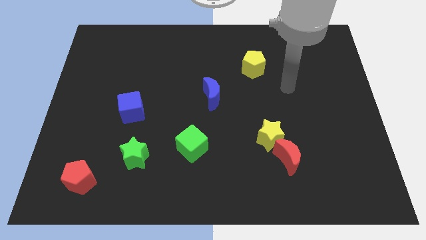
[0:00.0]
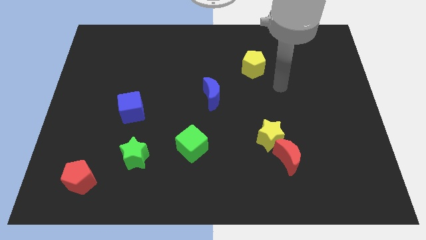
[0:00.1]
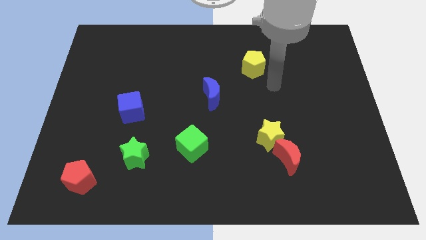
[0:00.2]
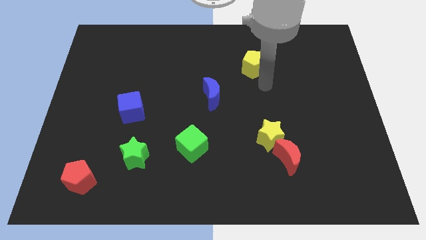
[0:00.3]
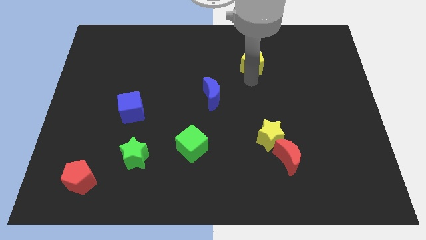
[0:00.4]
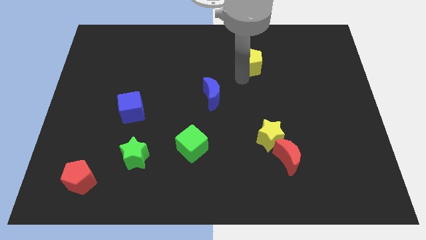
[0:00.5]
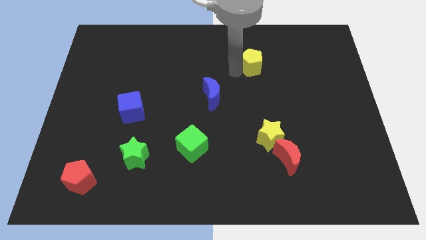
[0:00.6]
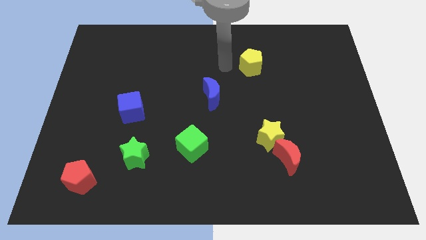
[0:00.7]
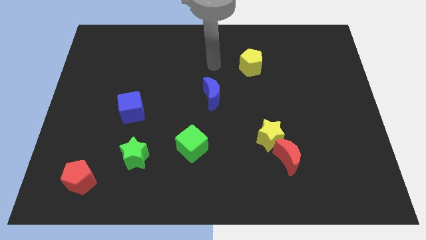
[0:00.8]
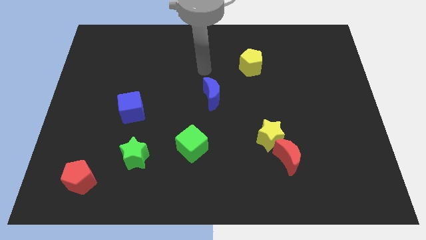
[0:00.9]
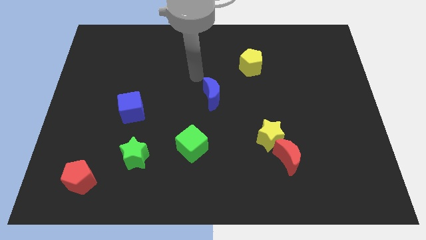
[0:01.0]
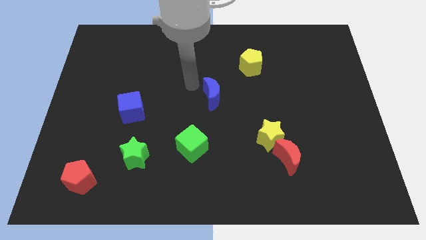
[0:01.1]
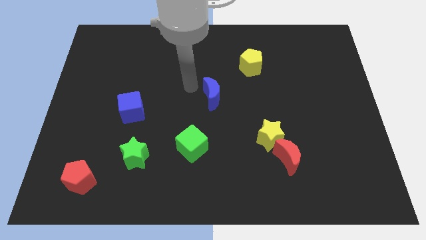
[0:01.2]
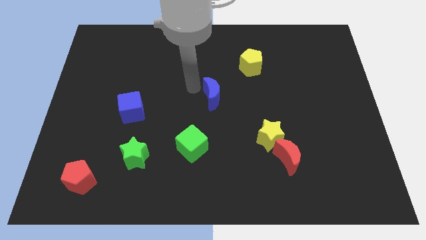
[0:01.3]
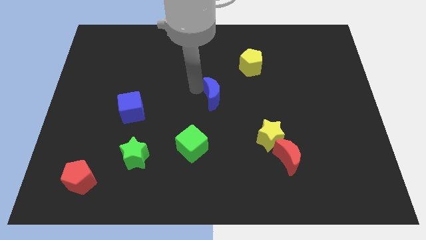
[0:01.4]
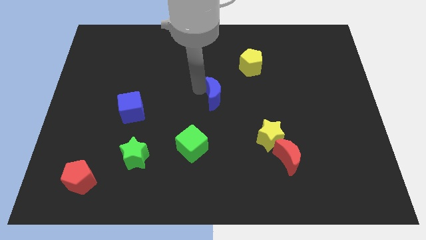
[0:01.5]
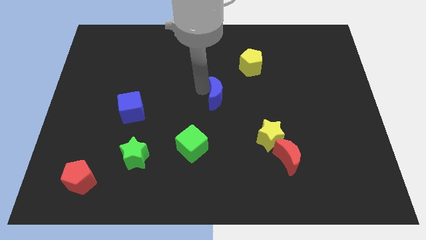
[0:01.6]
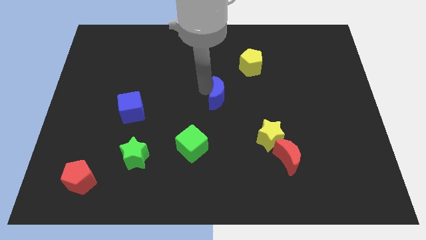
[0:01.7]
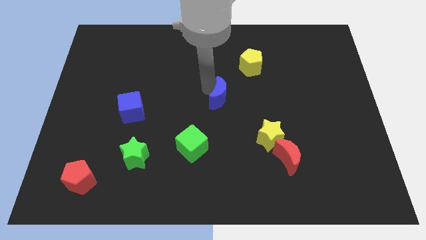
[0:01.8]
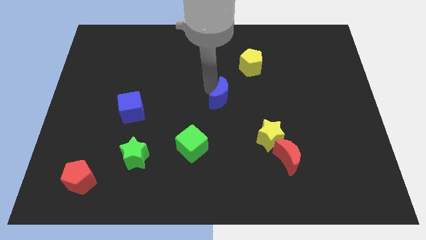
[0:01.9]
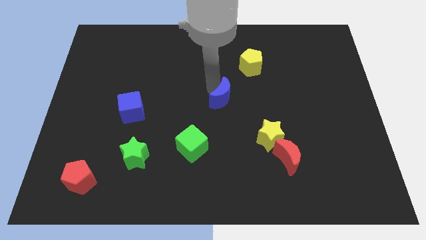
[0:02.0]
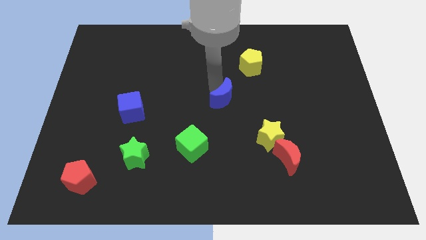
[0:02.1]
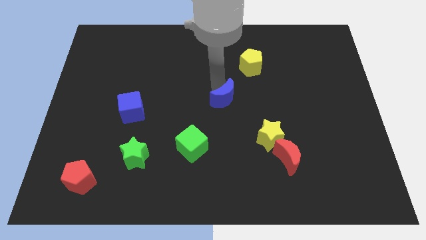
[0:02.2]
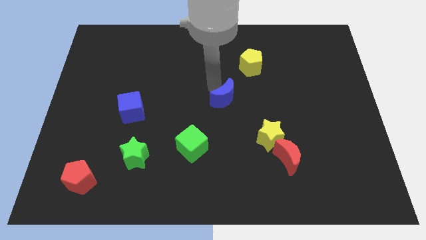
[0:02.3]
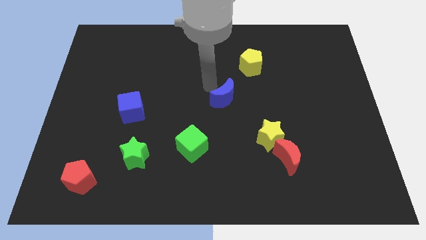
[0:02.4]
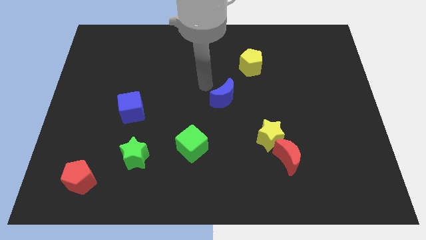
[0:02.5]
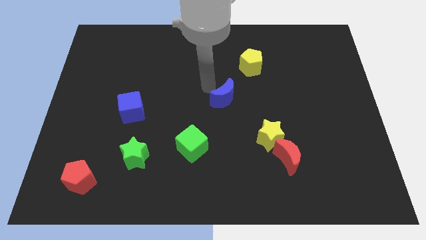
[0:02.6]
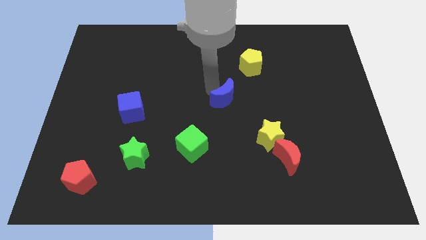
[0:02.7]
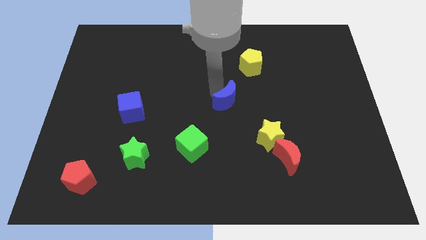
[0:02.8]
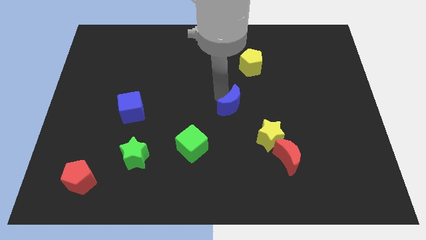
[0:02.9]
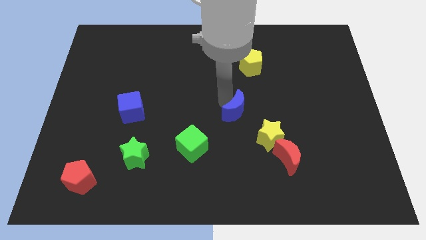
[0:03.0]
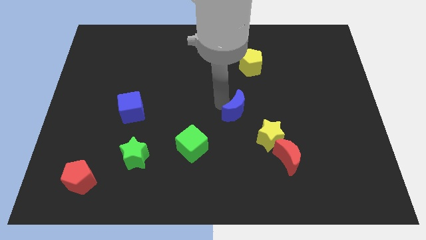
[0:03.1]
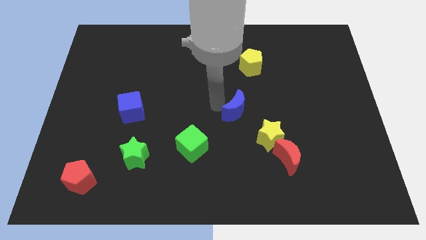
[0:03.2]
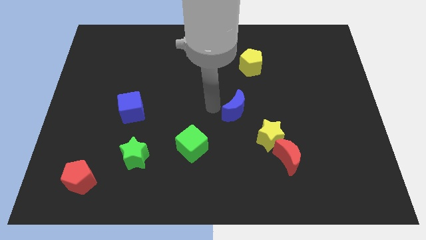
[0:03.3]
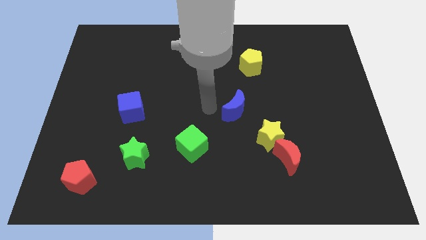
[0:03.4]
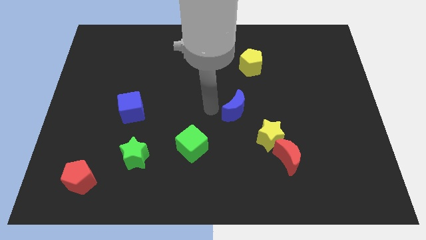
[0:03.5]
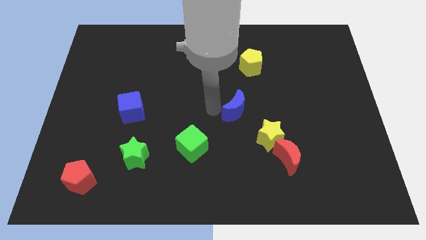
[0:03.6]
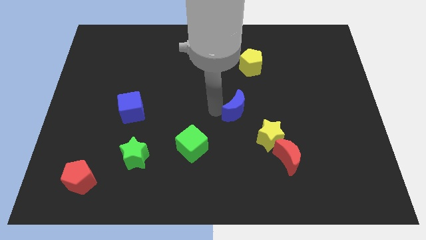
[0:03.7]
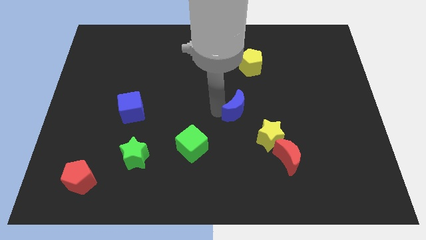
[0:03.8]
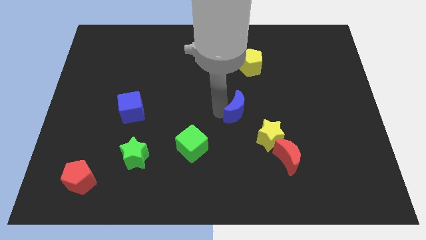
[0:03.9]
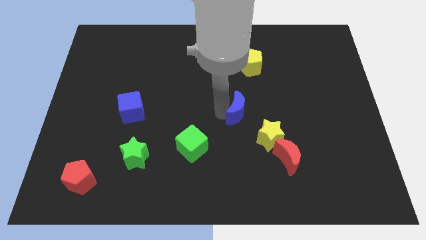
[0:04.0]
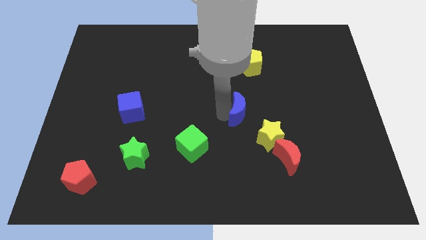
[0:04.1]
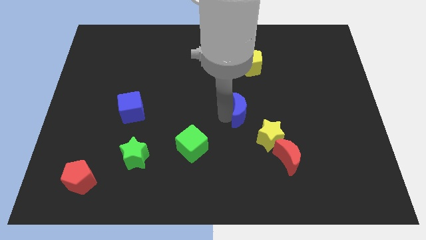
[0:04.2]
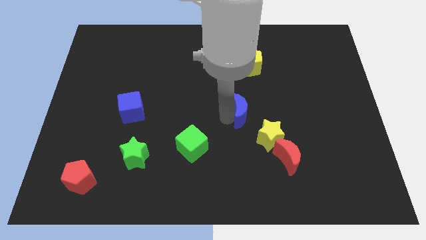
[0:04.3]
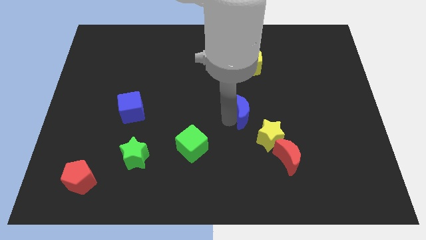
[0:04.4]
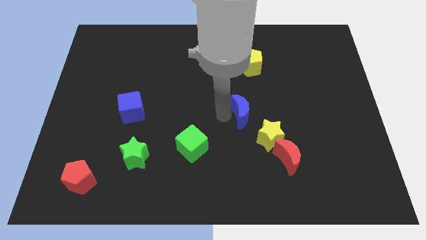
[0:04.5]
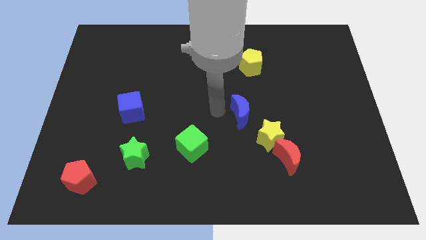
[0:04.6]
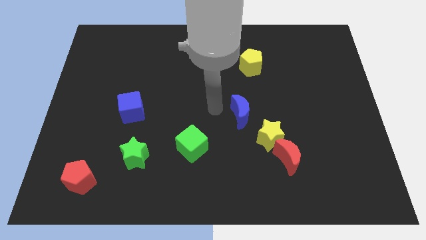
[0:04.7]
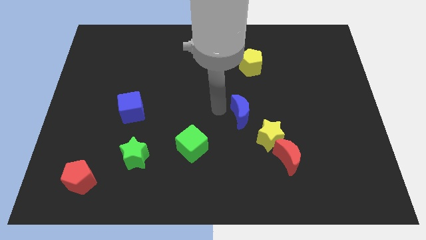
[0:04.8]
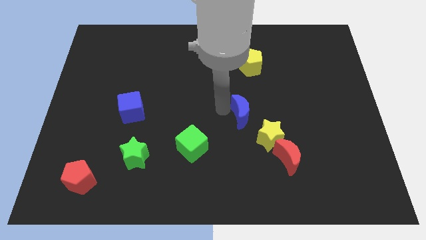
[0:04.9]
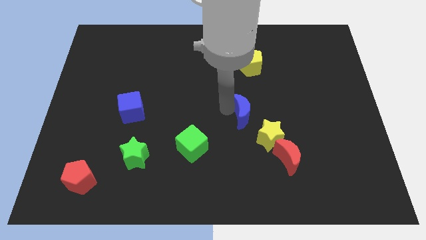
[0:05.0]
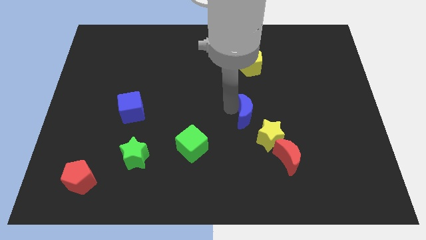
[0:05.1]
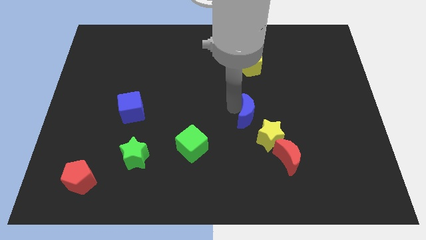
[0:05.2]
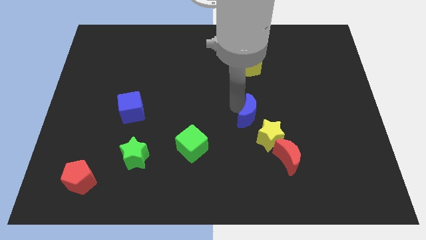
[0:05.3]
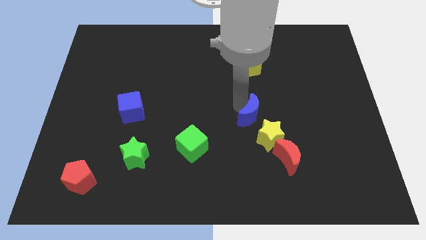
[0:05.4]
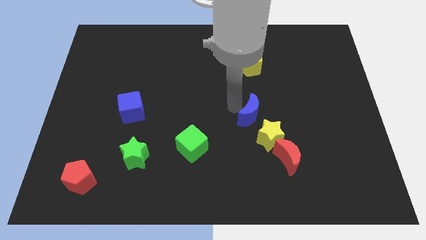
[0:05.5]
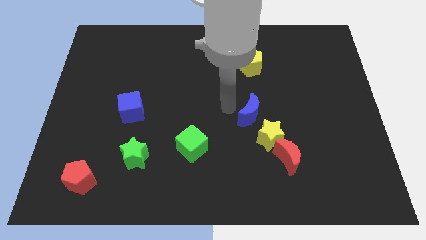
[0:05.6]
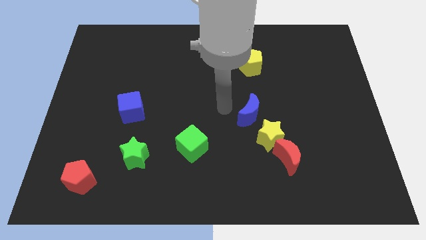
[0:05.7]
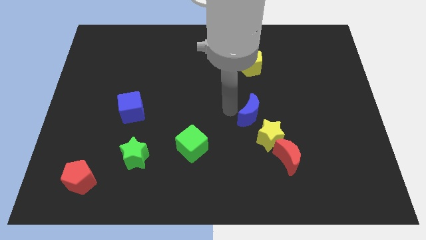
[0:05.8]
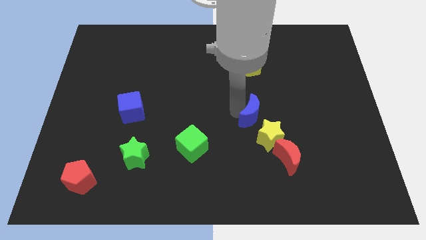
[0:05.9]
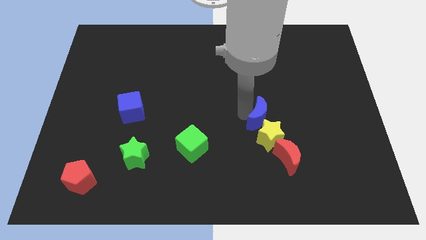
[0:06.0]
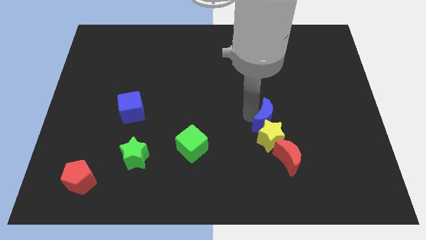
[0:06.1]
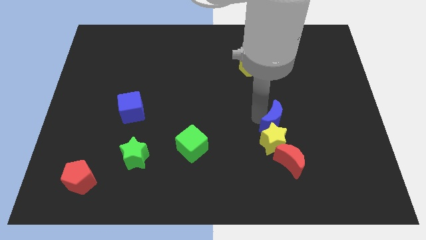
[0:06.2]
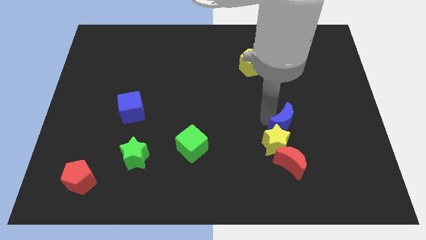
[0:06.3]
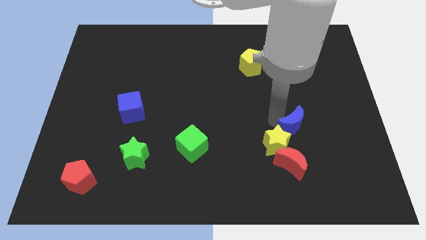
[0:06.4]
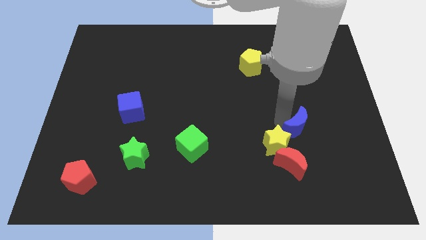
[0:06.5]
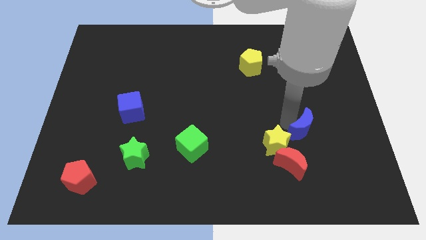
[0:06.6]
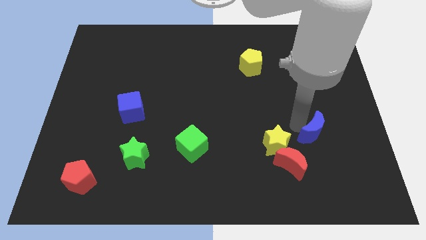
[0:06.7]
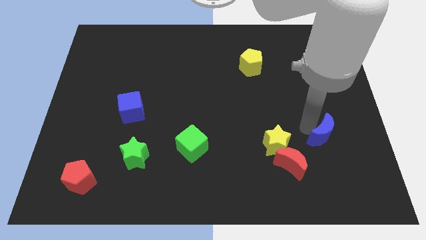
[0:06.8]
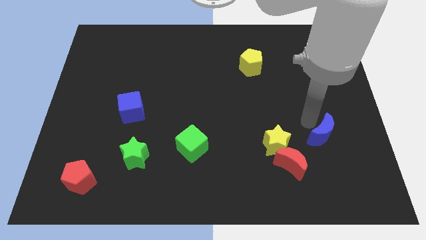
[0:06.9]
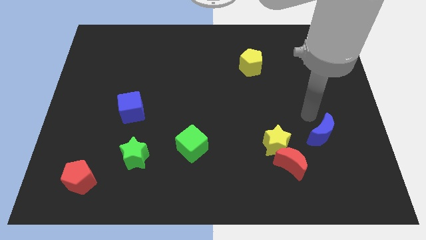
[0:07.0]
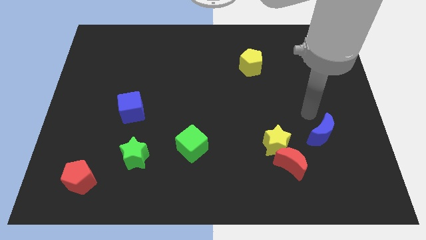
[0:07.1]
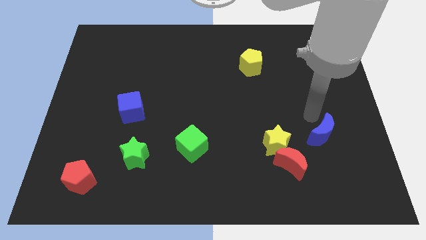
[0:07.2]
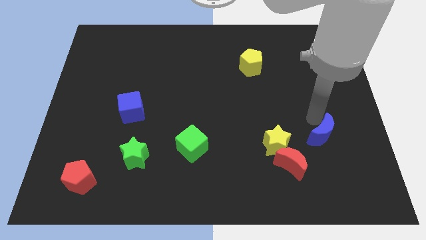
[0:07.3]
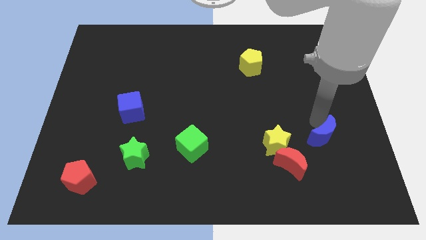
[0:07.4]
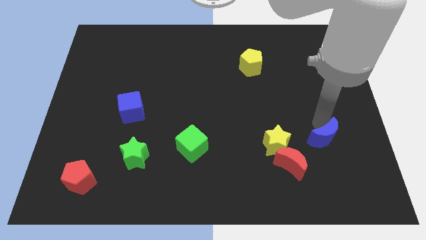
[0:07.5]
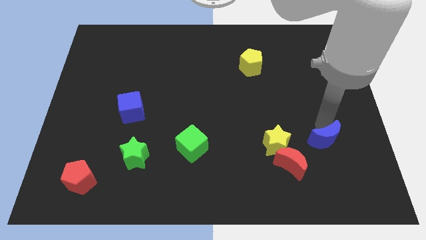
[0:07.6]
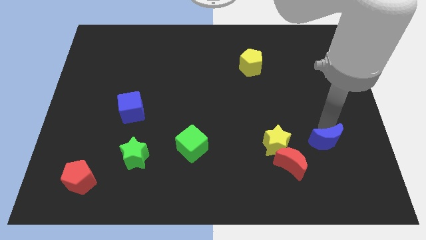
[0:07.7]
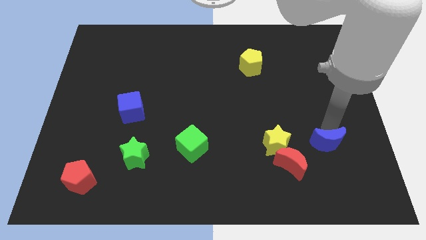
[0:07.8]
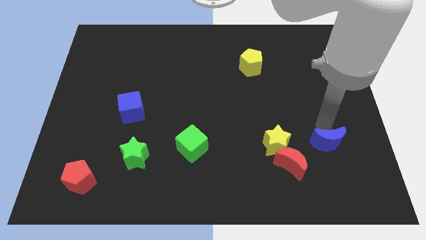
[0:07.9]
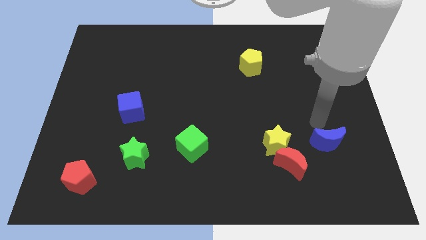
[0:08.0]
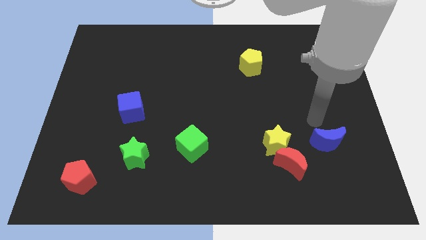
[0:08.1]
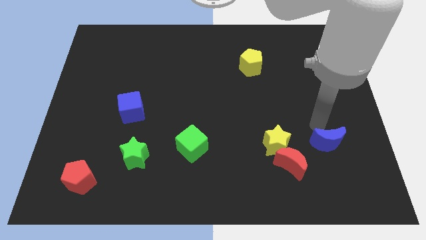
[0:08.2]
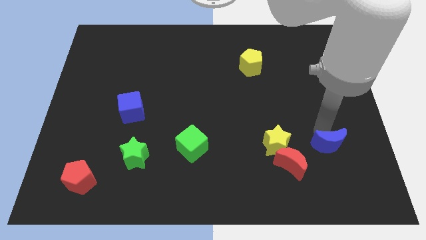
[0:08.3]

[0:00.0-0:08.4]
move the blue moon to the right side of the red moon

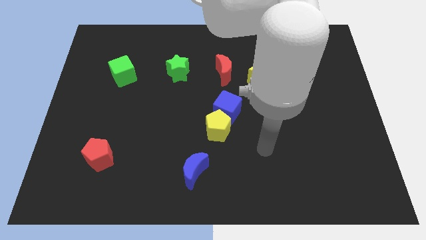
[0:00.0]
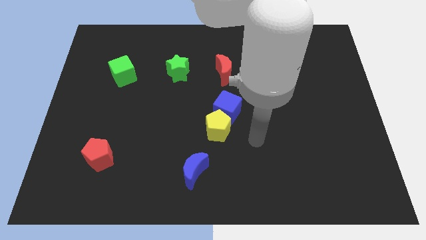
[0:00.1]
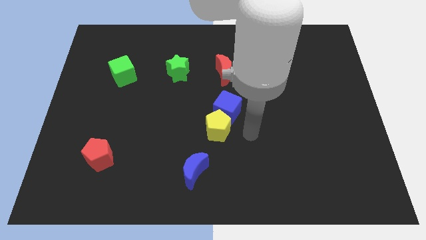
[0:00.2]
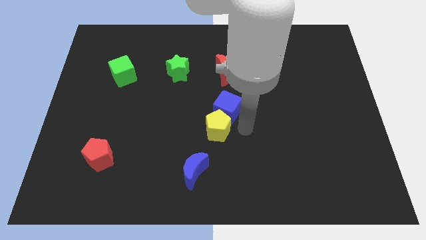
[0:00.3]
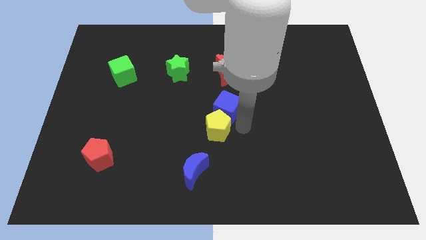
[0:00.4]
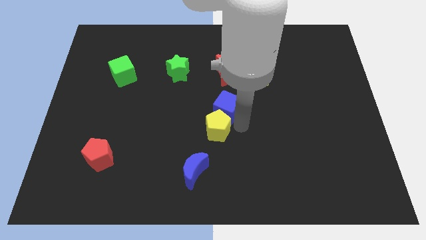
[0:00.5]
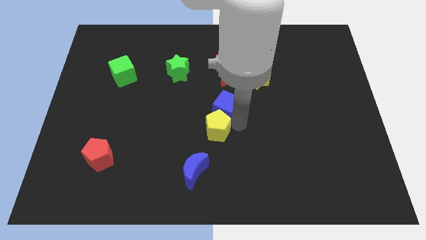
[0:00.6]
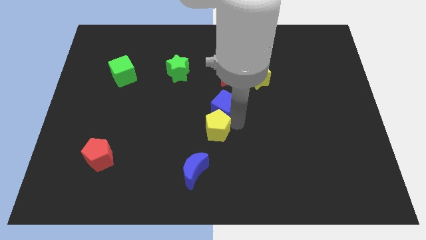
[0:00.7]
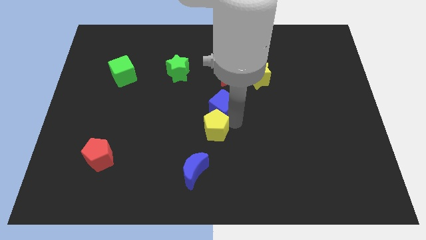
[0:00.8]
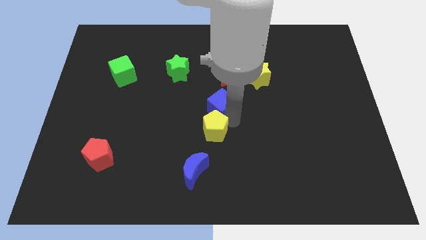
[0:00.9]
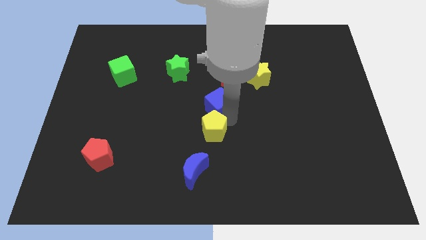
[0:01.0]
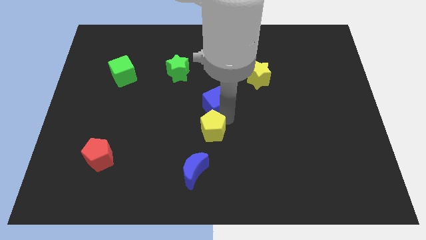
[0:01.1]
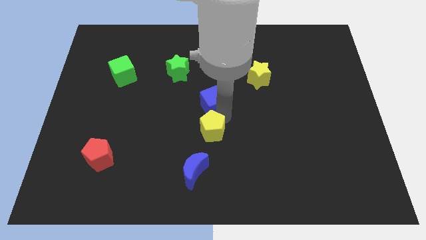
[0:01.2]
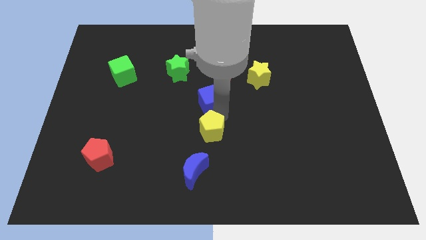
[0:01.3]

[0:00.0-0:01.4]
move the blue cube to the bottom left of the red moon
